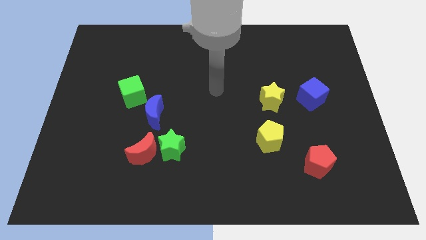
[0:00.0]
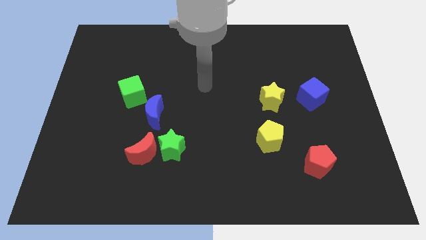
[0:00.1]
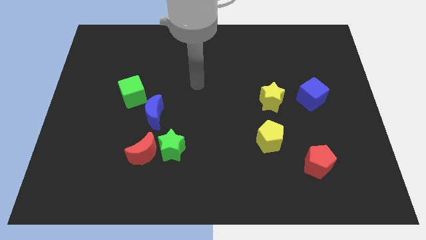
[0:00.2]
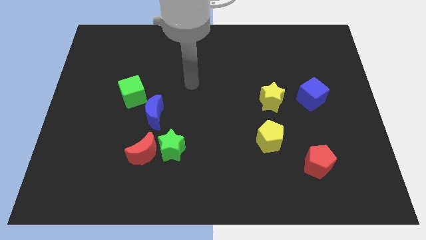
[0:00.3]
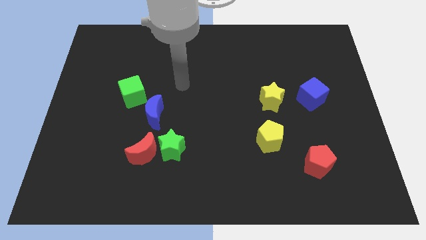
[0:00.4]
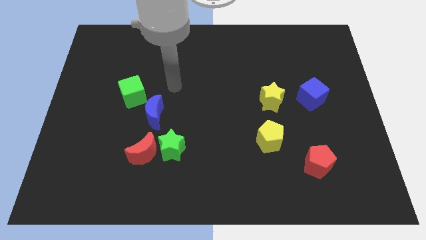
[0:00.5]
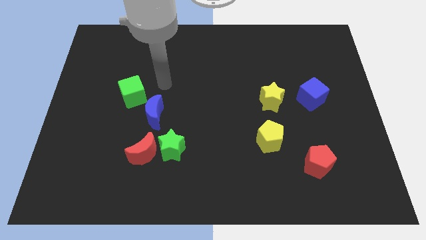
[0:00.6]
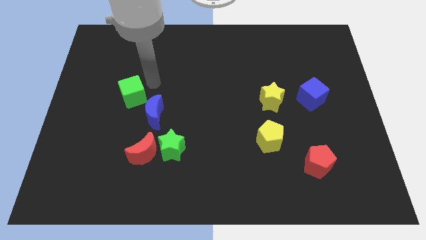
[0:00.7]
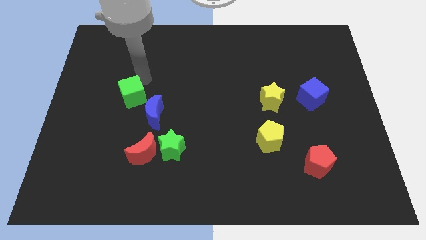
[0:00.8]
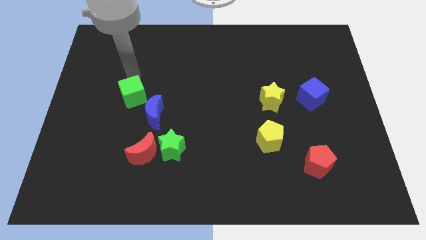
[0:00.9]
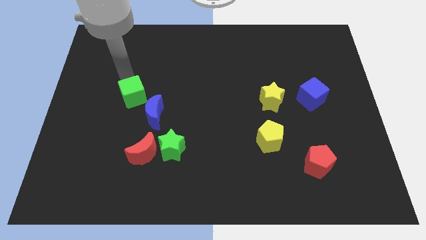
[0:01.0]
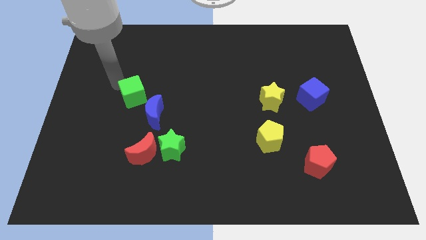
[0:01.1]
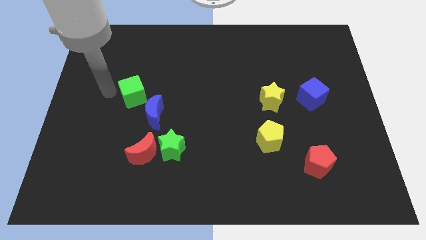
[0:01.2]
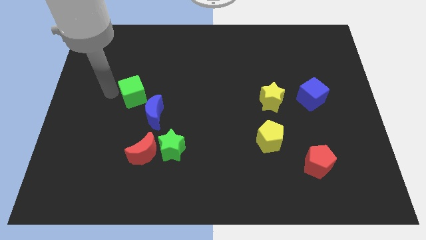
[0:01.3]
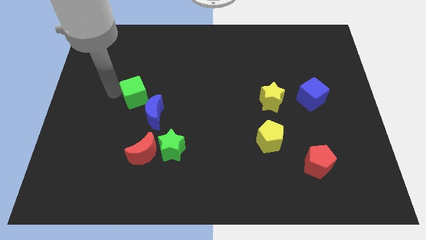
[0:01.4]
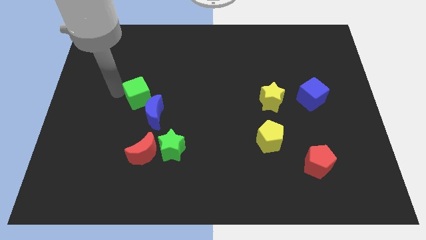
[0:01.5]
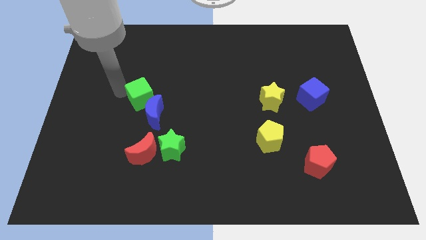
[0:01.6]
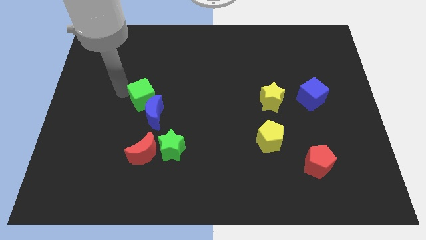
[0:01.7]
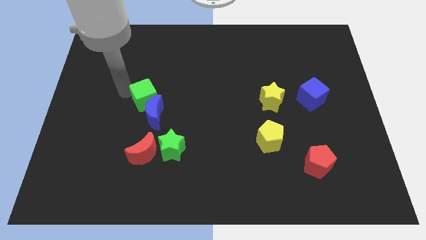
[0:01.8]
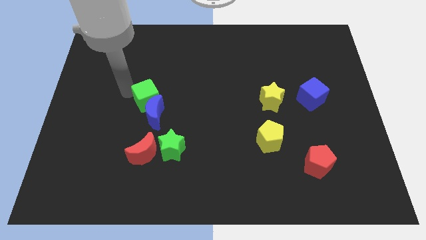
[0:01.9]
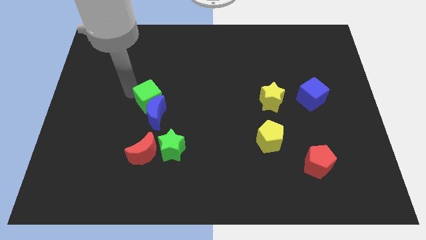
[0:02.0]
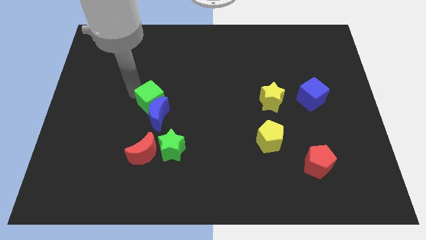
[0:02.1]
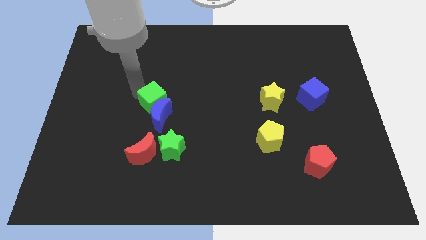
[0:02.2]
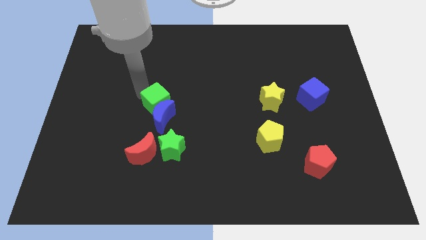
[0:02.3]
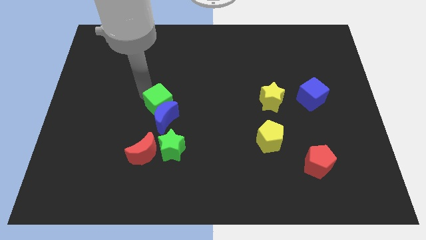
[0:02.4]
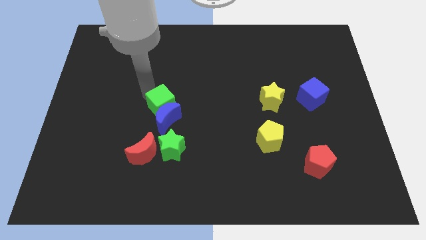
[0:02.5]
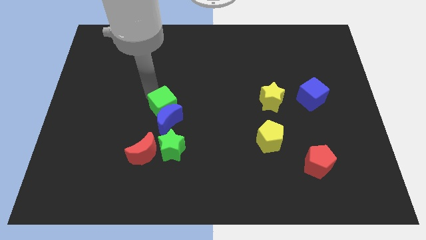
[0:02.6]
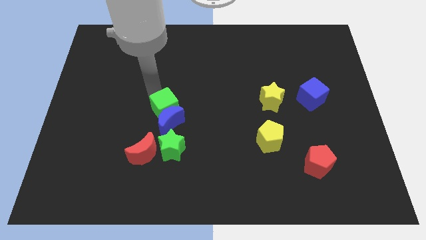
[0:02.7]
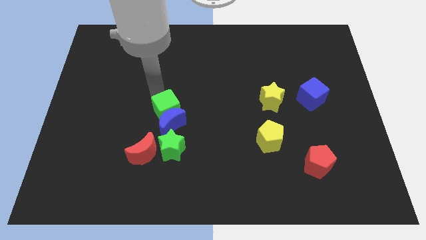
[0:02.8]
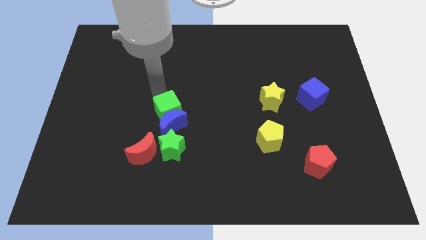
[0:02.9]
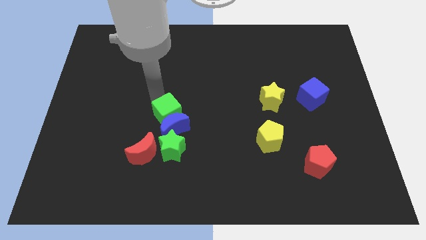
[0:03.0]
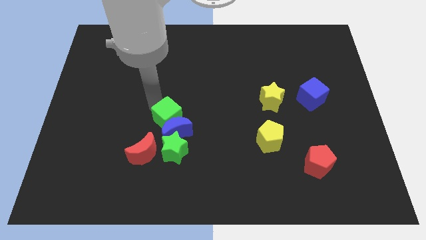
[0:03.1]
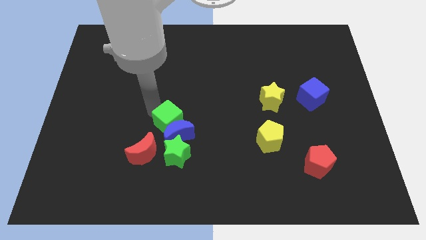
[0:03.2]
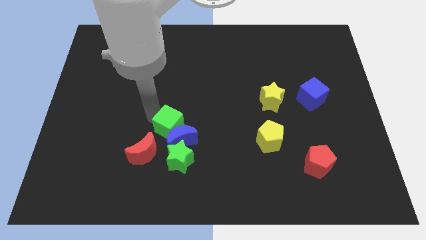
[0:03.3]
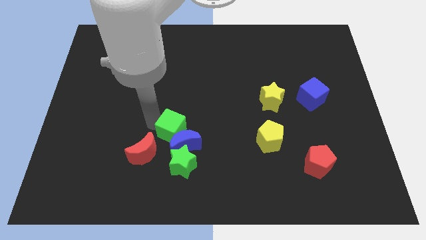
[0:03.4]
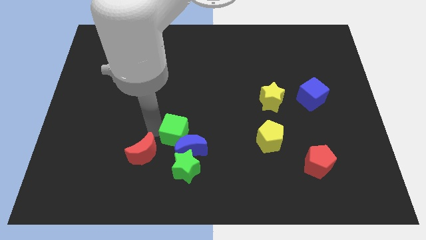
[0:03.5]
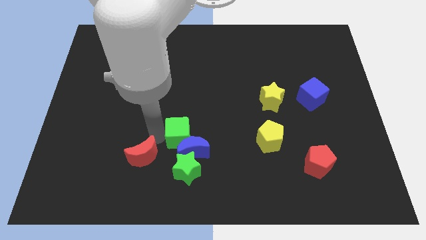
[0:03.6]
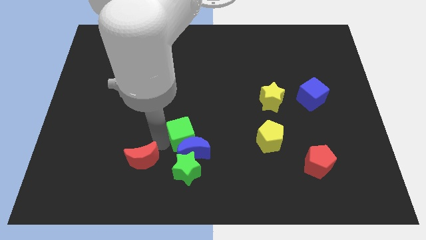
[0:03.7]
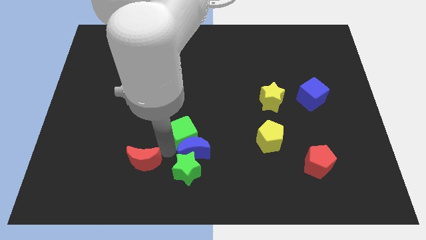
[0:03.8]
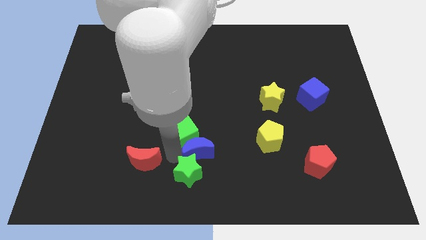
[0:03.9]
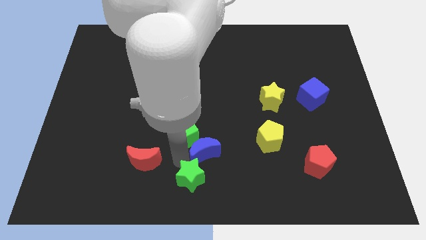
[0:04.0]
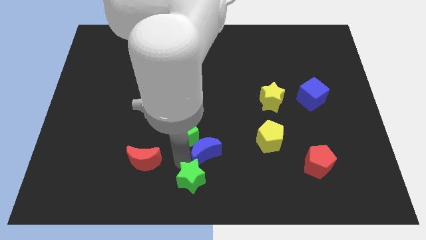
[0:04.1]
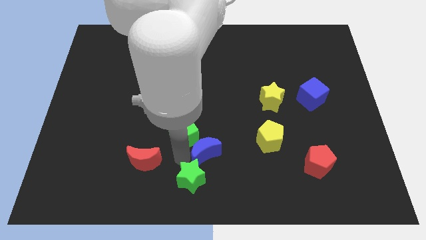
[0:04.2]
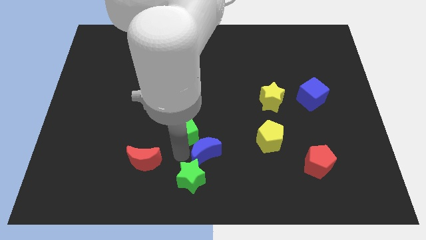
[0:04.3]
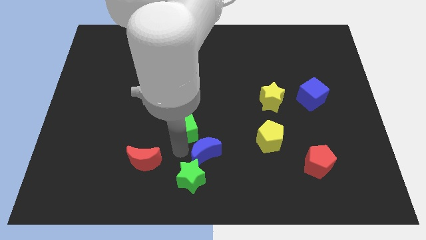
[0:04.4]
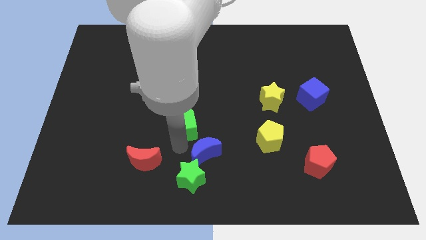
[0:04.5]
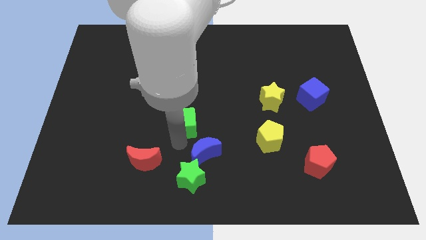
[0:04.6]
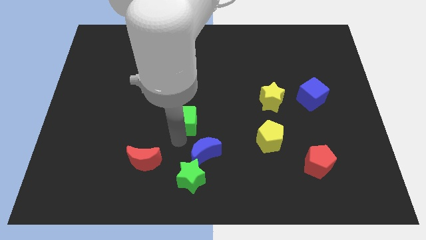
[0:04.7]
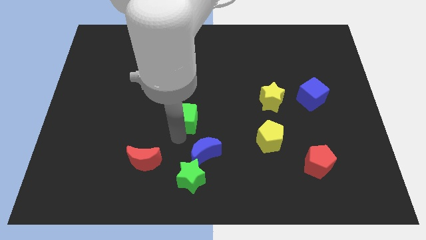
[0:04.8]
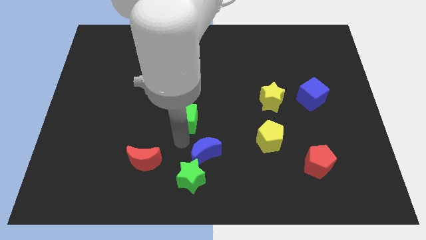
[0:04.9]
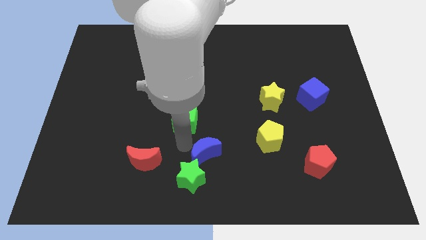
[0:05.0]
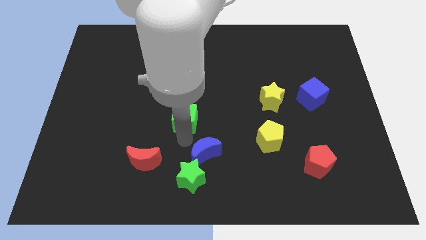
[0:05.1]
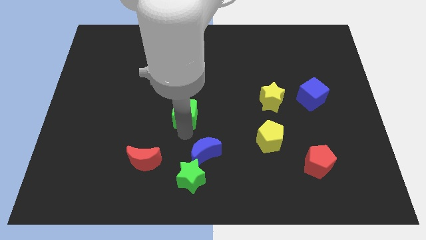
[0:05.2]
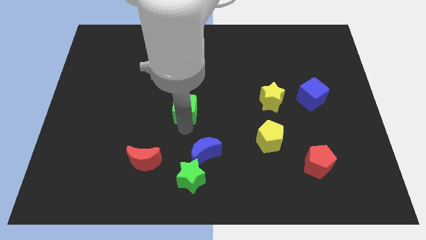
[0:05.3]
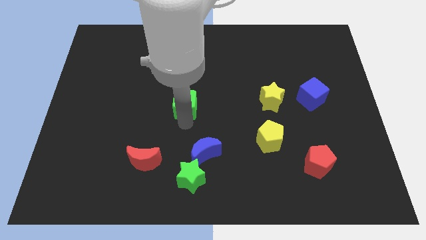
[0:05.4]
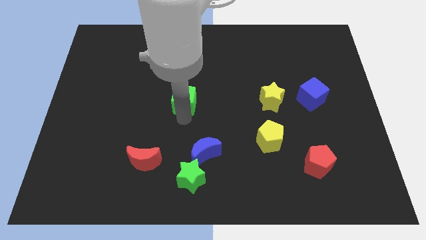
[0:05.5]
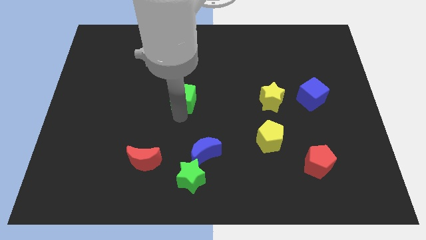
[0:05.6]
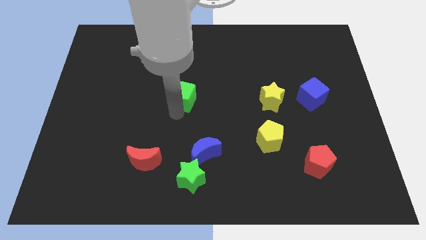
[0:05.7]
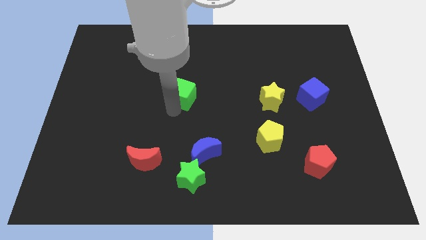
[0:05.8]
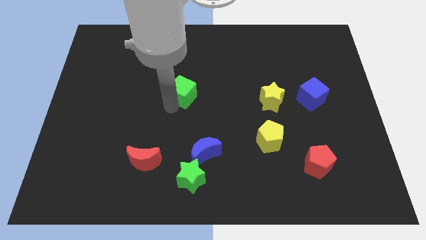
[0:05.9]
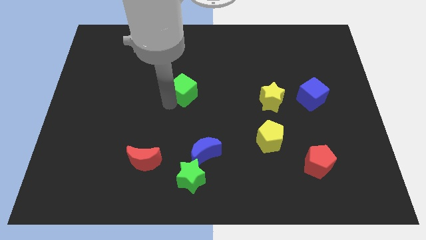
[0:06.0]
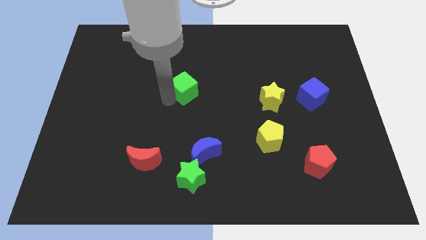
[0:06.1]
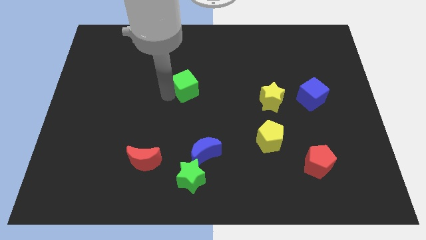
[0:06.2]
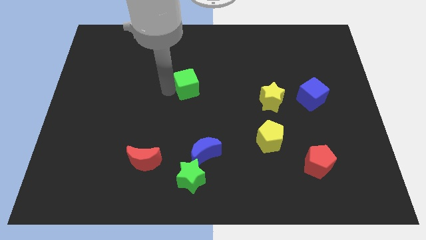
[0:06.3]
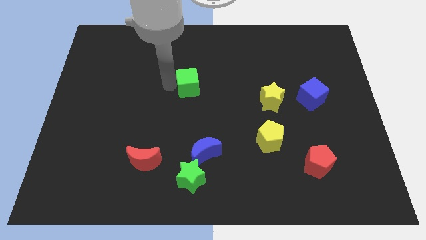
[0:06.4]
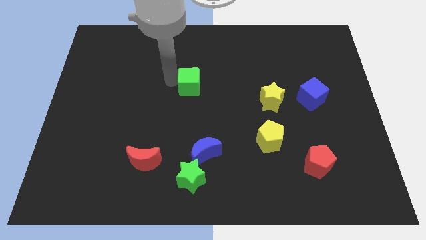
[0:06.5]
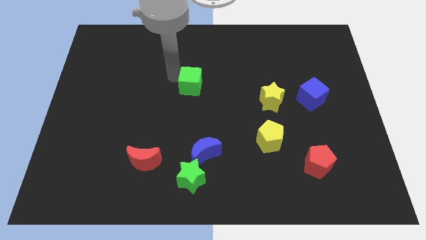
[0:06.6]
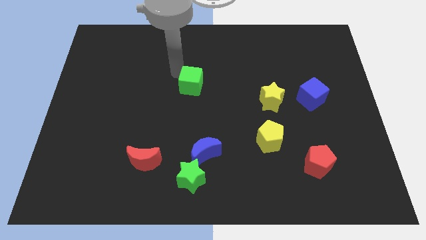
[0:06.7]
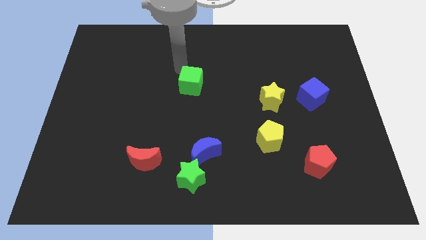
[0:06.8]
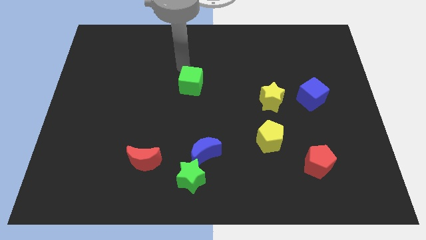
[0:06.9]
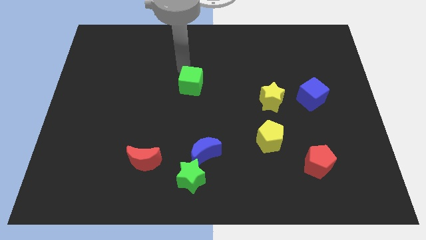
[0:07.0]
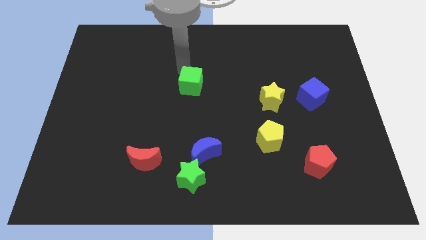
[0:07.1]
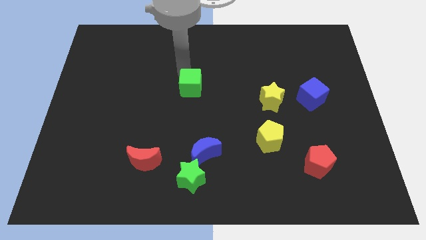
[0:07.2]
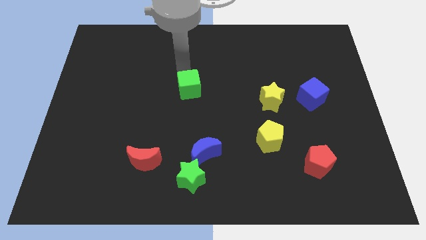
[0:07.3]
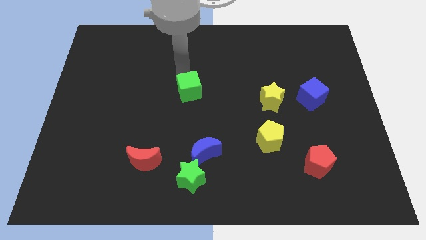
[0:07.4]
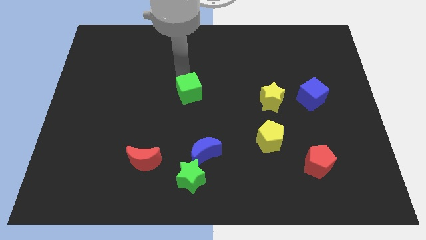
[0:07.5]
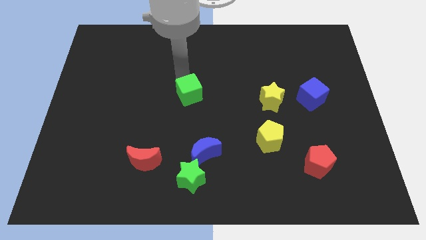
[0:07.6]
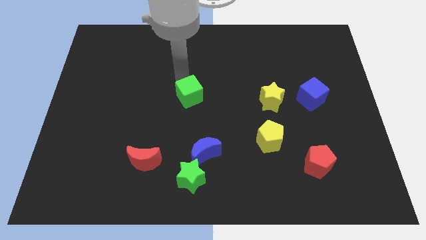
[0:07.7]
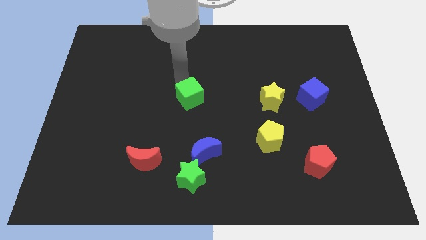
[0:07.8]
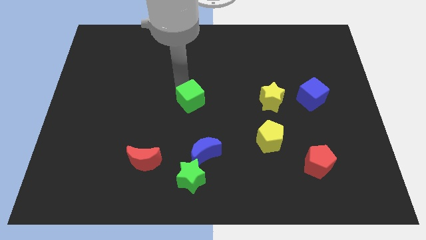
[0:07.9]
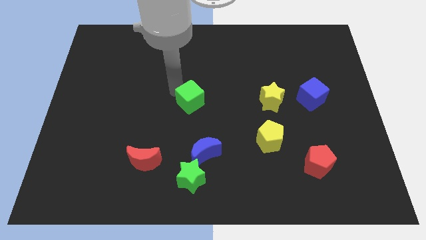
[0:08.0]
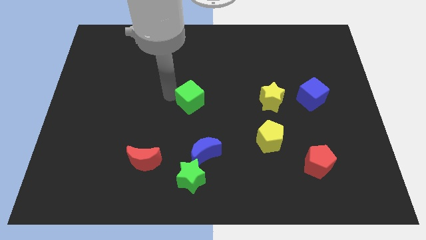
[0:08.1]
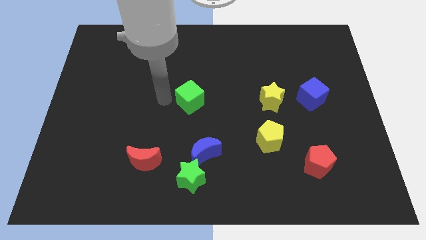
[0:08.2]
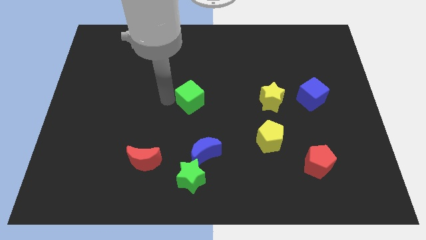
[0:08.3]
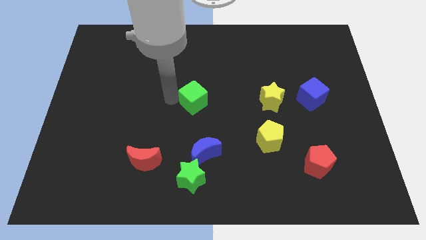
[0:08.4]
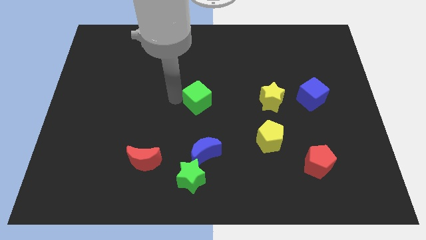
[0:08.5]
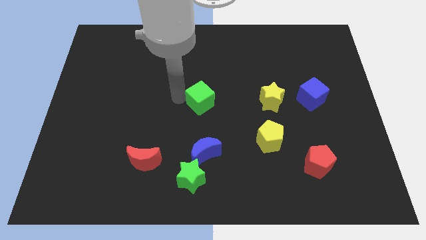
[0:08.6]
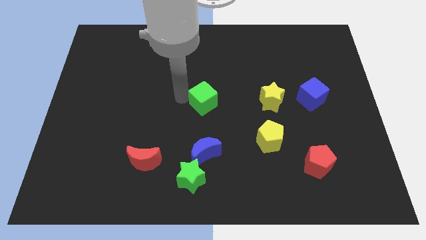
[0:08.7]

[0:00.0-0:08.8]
put the green cube to the left side of the yellow star
